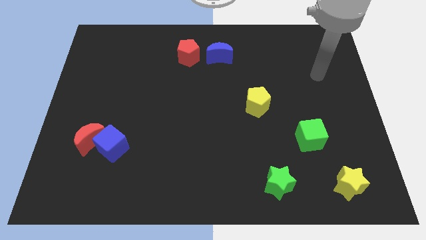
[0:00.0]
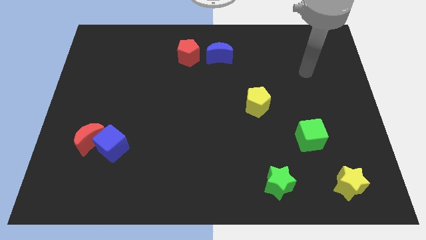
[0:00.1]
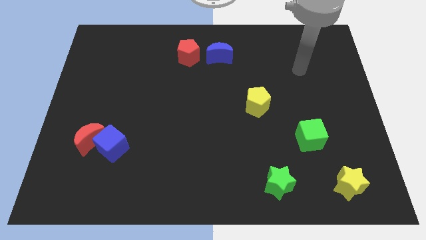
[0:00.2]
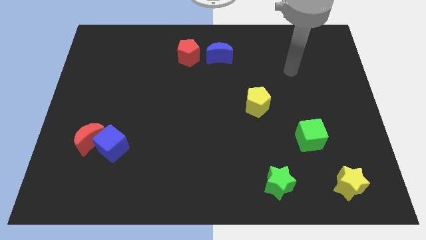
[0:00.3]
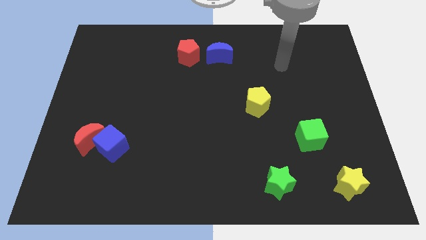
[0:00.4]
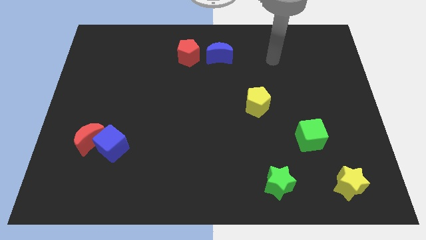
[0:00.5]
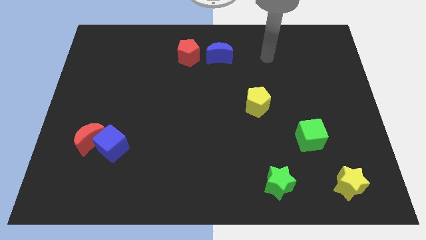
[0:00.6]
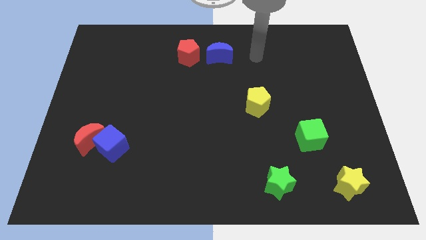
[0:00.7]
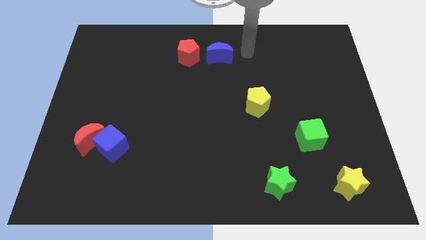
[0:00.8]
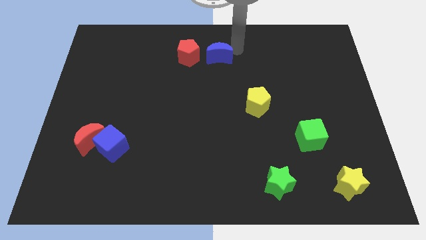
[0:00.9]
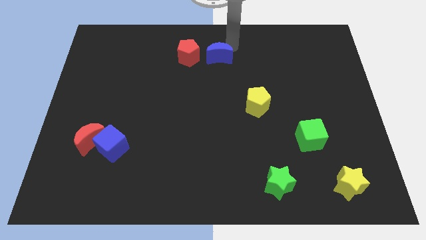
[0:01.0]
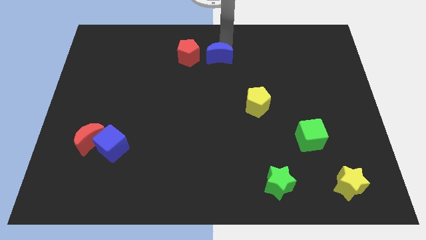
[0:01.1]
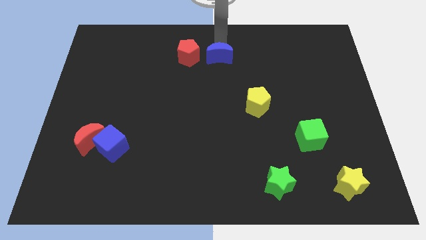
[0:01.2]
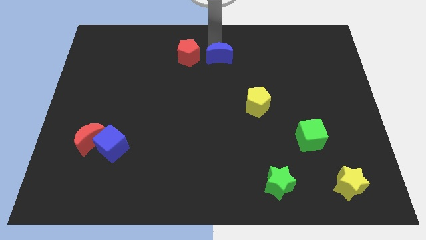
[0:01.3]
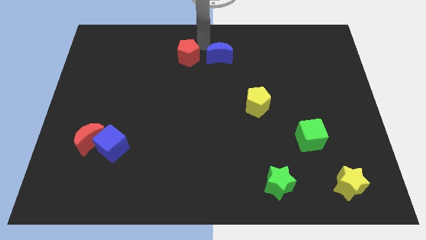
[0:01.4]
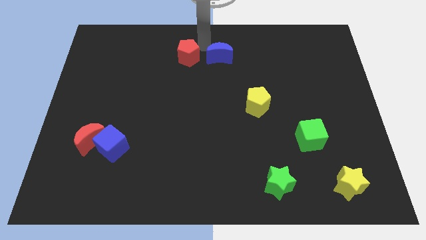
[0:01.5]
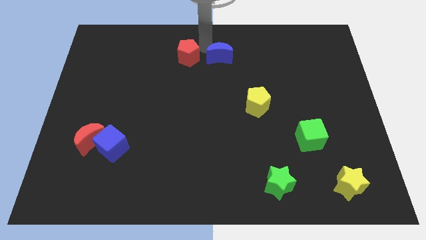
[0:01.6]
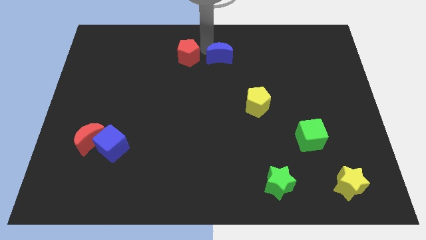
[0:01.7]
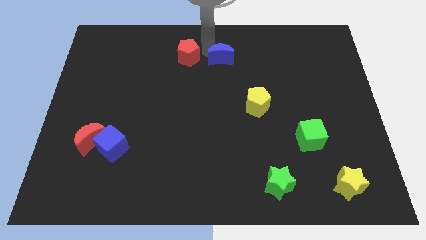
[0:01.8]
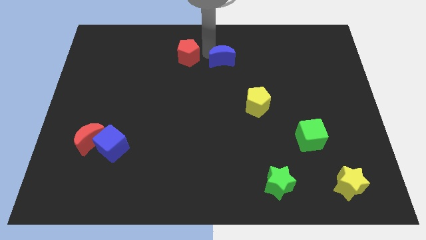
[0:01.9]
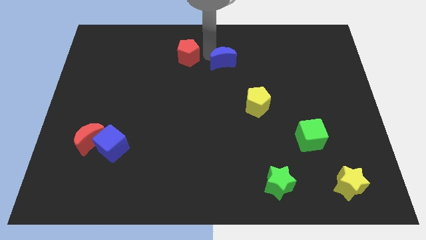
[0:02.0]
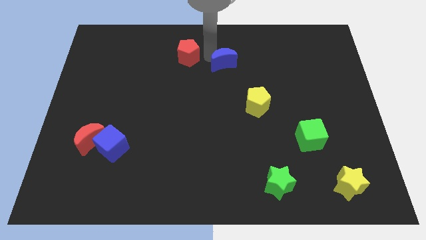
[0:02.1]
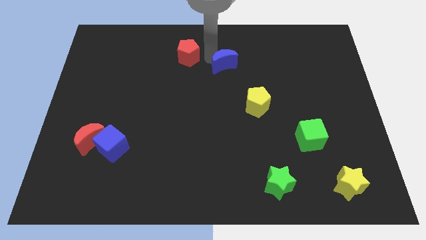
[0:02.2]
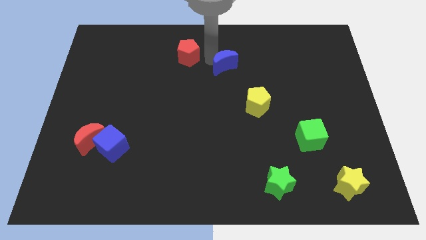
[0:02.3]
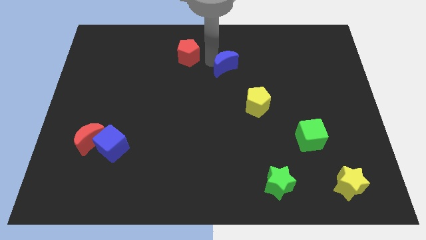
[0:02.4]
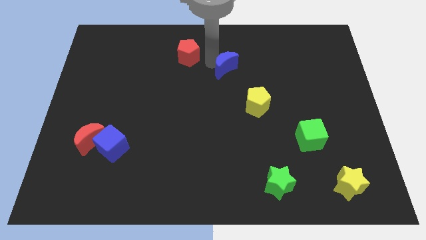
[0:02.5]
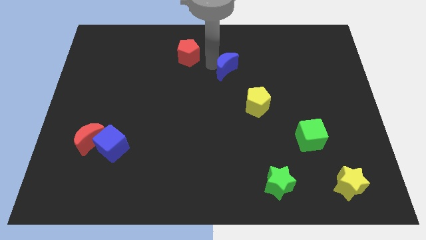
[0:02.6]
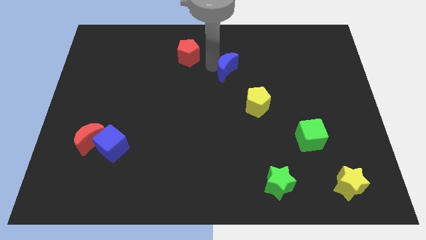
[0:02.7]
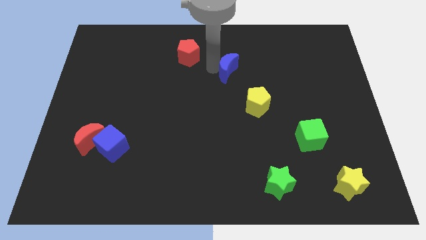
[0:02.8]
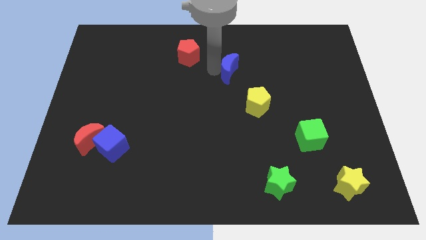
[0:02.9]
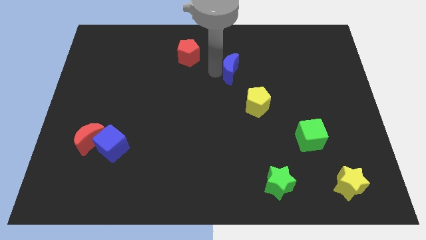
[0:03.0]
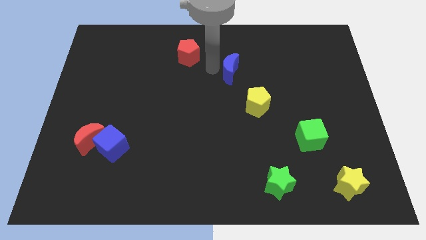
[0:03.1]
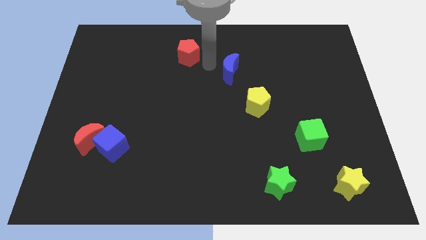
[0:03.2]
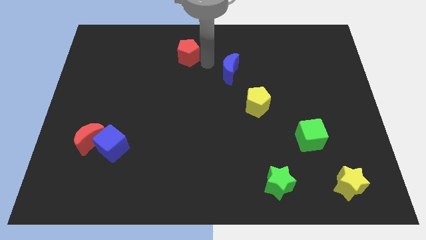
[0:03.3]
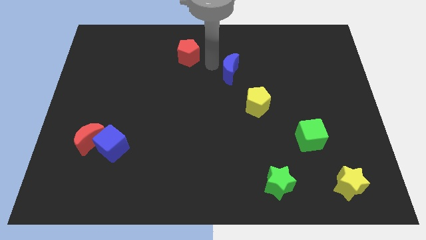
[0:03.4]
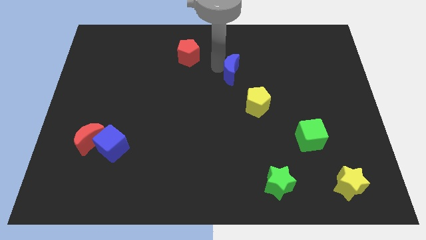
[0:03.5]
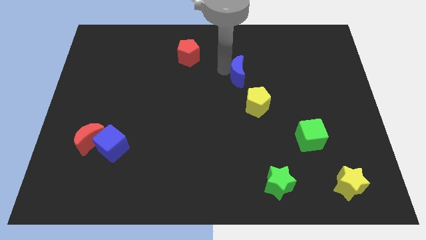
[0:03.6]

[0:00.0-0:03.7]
move the blue moon a bit diagonally downwards and to the right

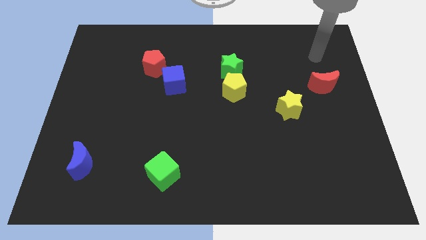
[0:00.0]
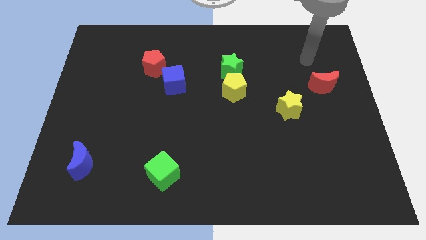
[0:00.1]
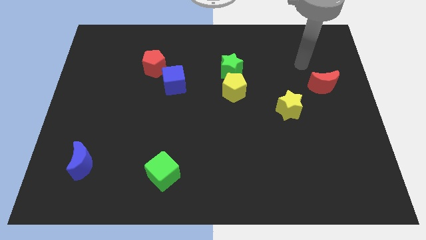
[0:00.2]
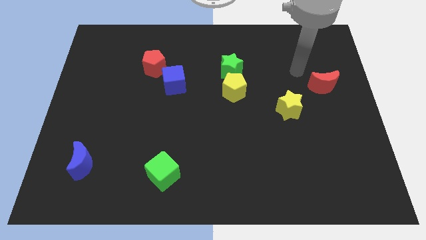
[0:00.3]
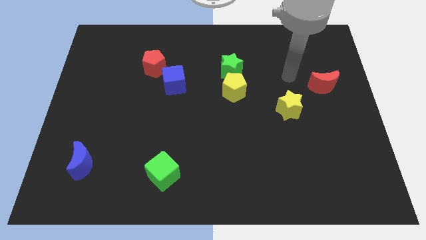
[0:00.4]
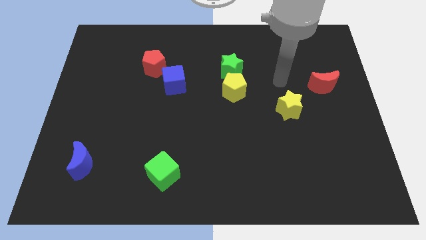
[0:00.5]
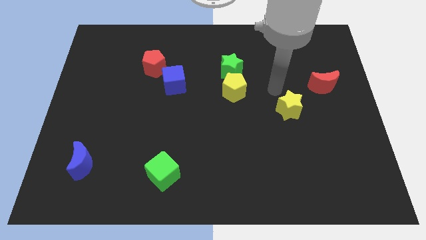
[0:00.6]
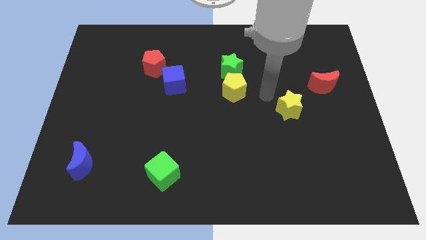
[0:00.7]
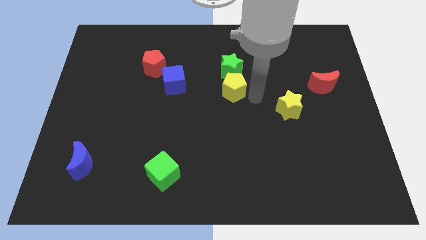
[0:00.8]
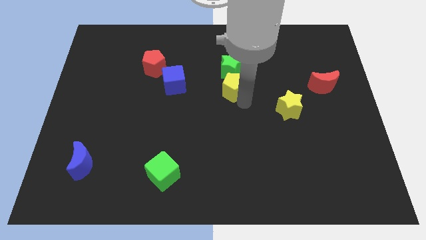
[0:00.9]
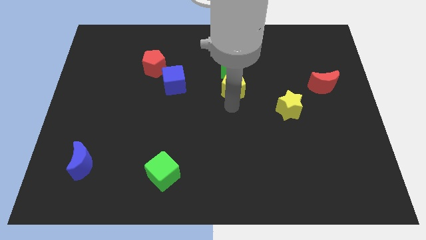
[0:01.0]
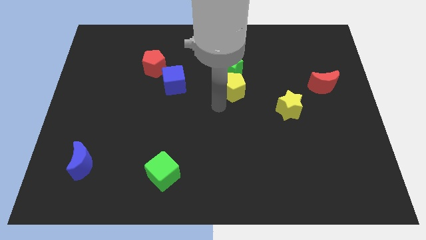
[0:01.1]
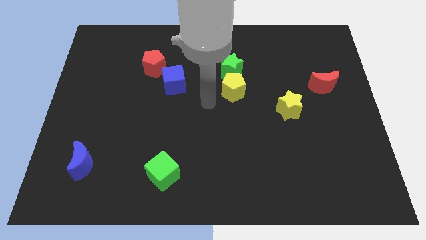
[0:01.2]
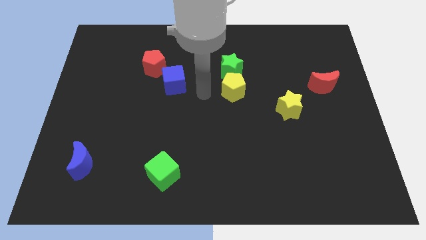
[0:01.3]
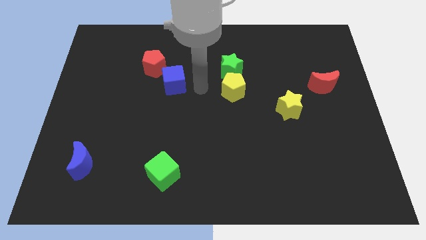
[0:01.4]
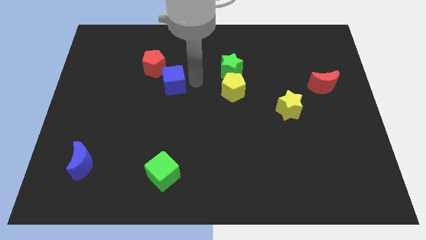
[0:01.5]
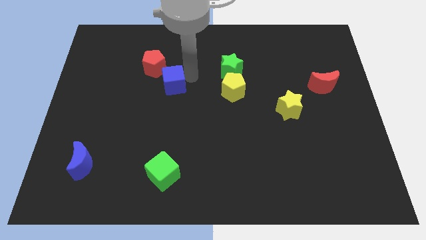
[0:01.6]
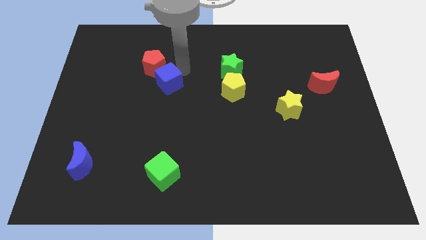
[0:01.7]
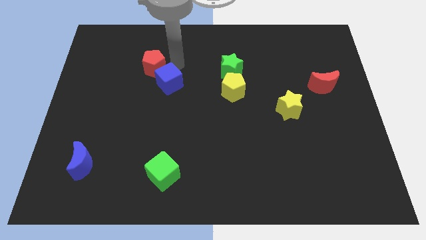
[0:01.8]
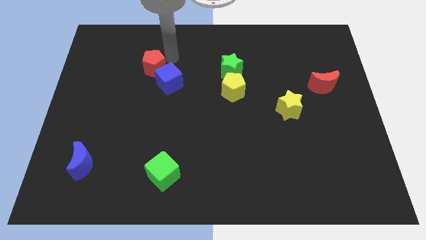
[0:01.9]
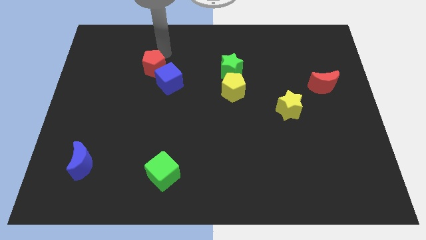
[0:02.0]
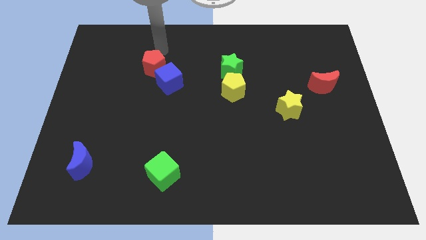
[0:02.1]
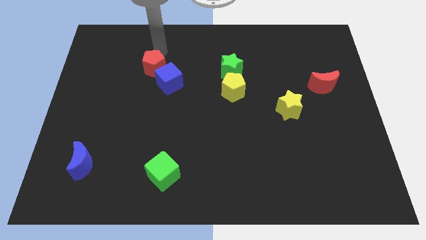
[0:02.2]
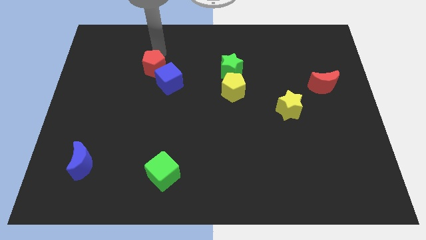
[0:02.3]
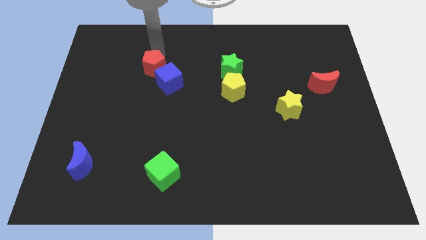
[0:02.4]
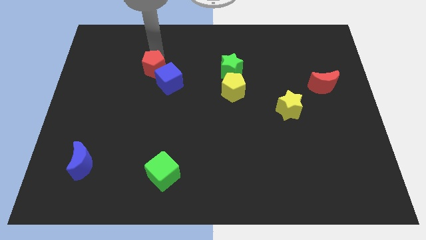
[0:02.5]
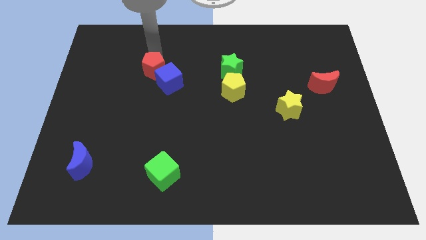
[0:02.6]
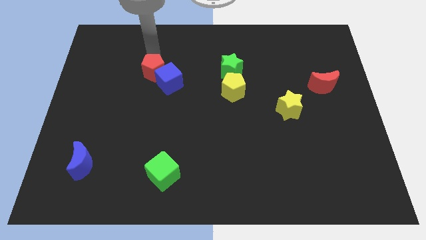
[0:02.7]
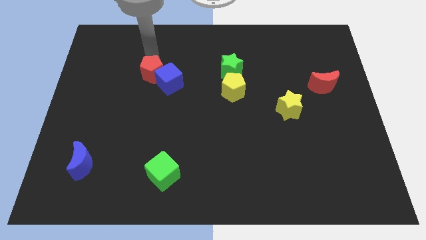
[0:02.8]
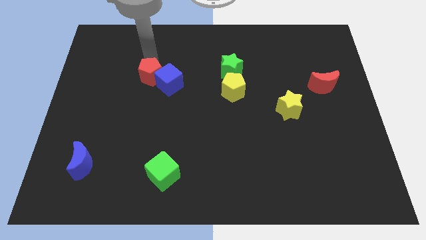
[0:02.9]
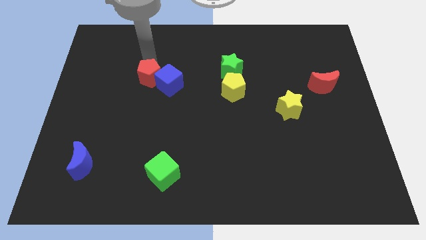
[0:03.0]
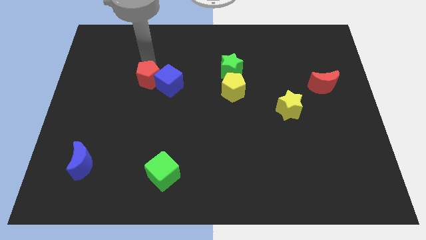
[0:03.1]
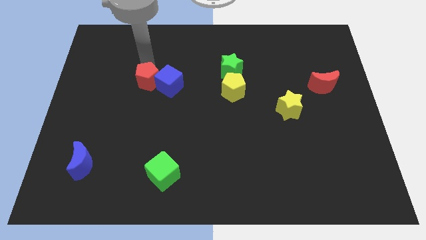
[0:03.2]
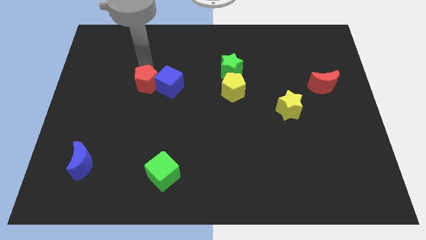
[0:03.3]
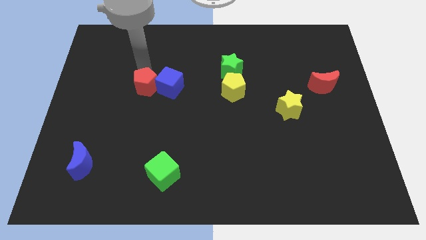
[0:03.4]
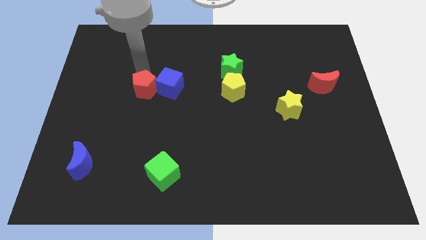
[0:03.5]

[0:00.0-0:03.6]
slide the red pentagon somewhat downwards

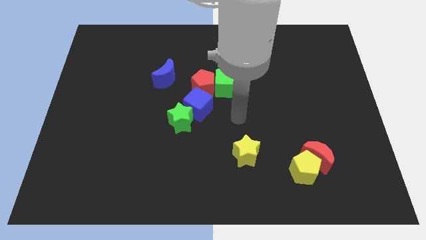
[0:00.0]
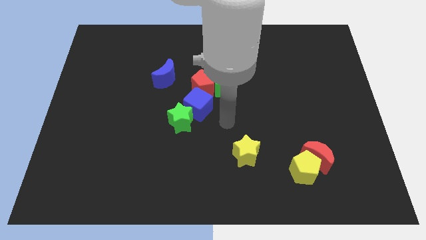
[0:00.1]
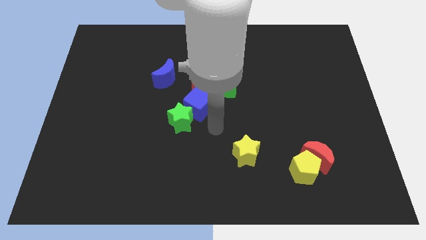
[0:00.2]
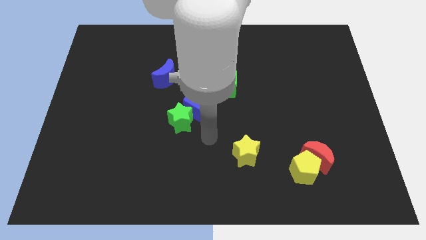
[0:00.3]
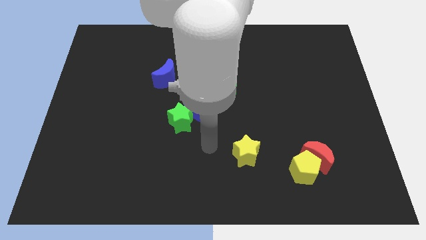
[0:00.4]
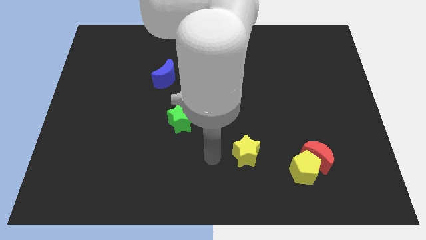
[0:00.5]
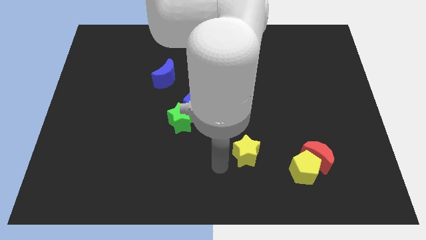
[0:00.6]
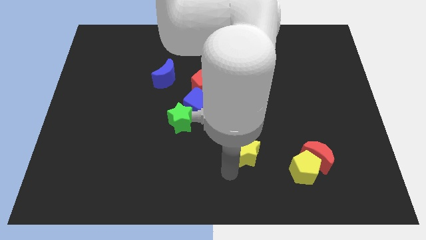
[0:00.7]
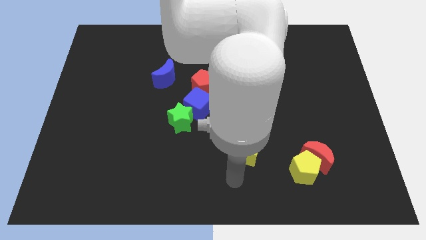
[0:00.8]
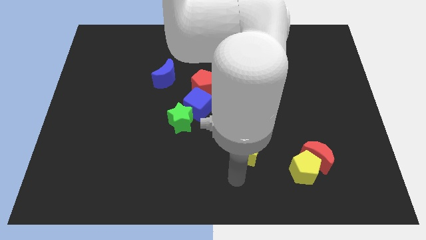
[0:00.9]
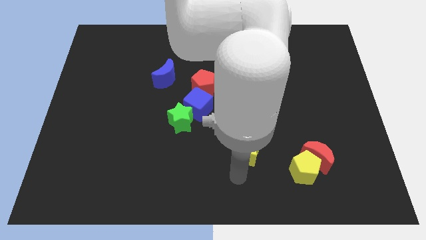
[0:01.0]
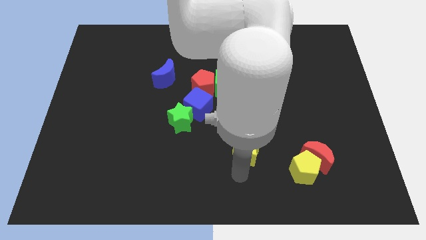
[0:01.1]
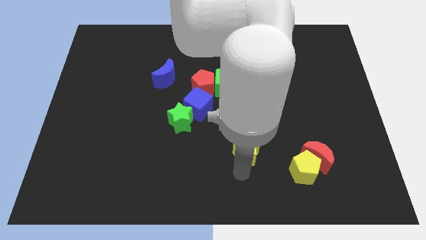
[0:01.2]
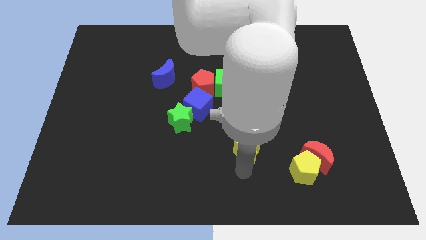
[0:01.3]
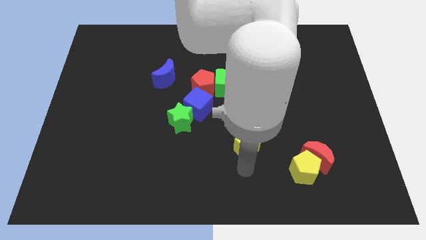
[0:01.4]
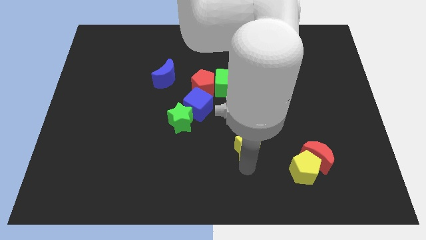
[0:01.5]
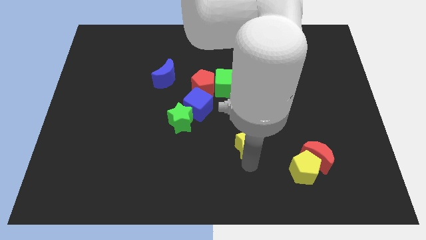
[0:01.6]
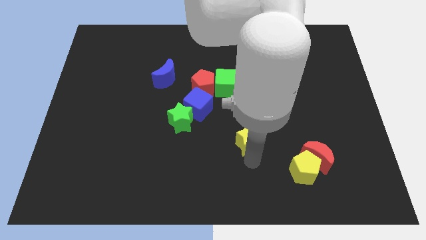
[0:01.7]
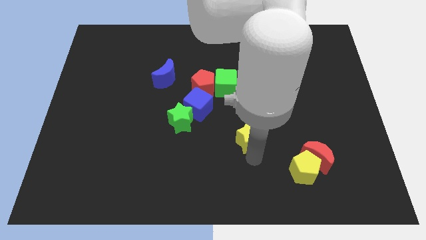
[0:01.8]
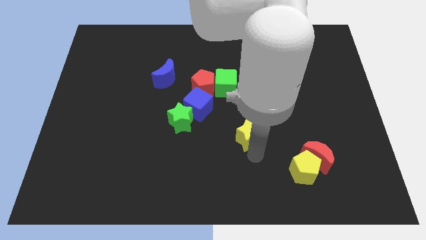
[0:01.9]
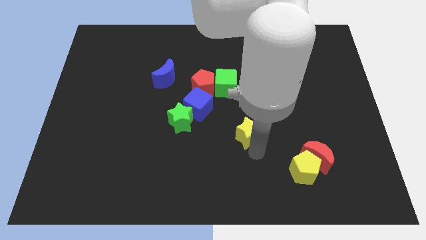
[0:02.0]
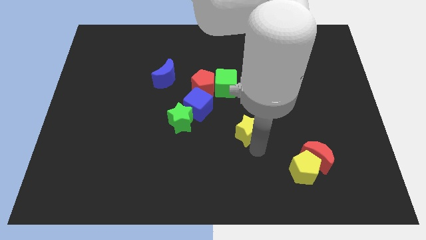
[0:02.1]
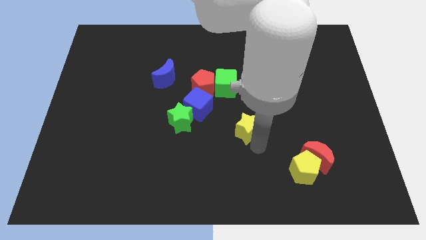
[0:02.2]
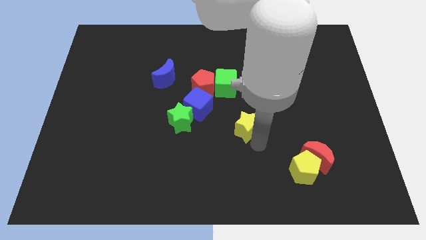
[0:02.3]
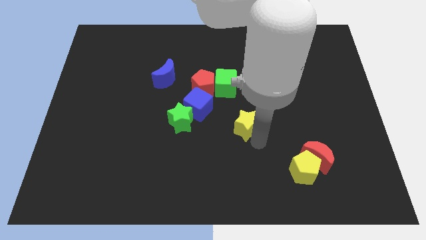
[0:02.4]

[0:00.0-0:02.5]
slide the yellow star a little bit upwards
